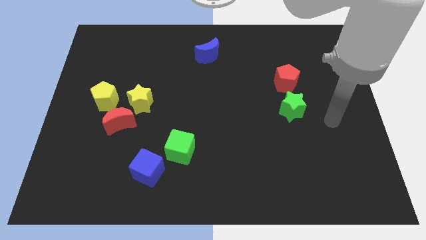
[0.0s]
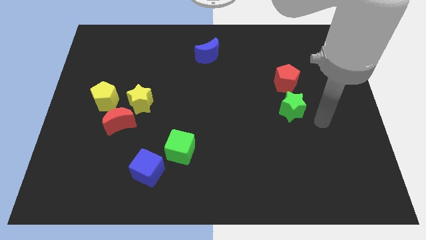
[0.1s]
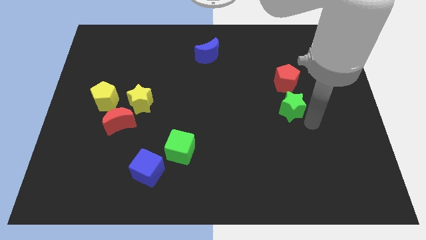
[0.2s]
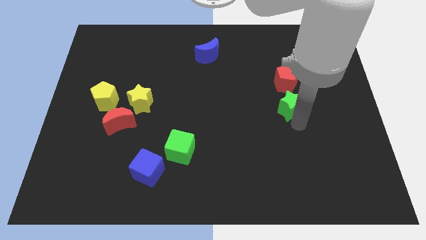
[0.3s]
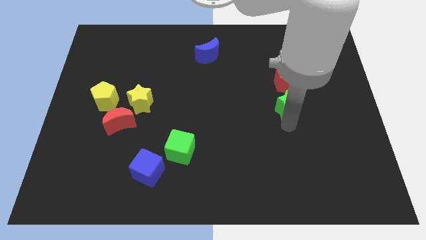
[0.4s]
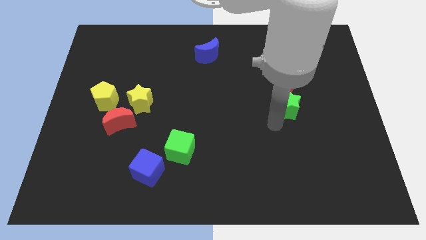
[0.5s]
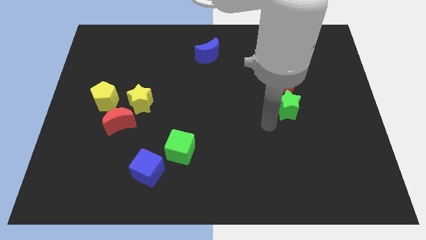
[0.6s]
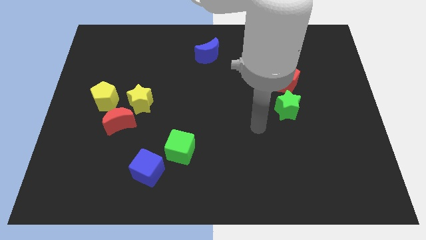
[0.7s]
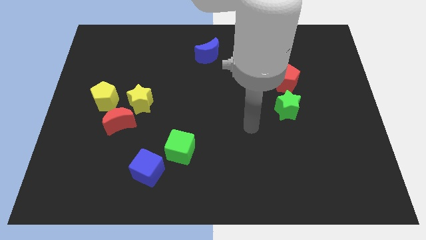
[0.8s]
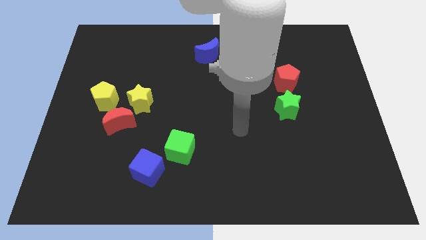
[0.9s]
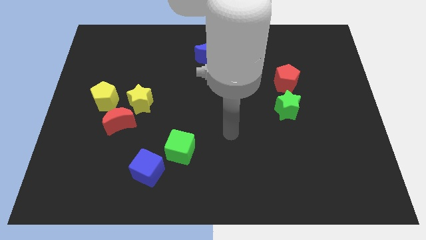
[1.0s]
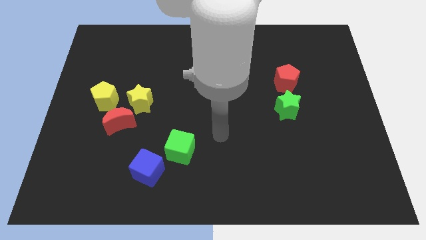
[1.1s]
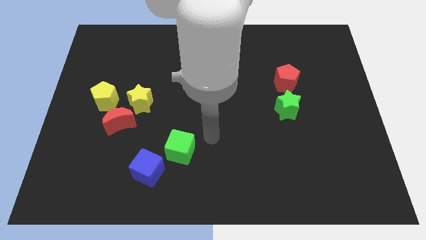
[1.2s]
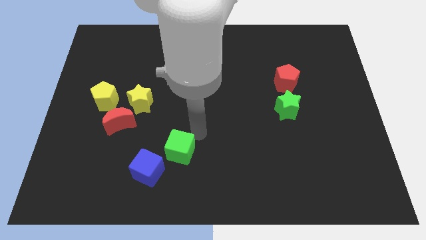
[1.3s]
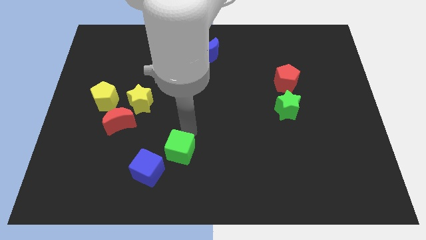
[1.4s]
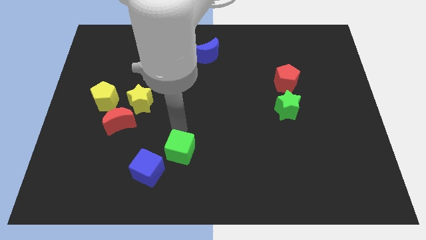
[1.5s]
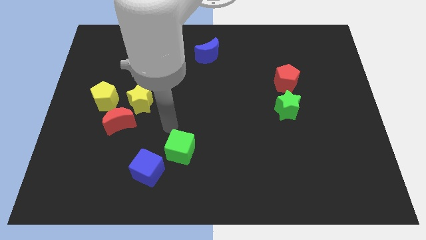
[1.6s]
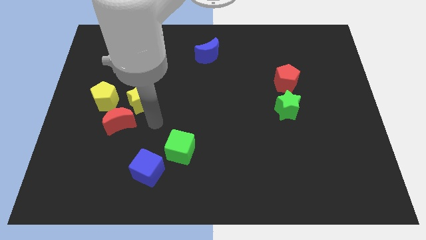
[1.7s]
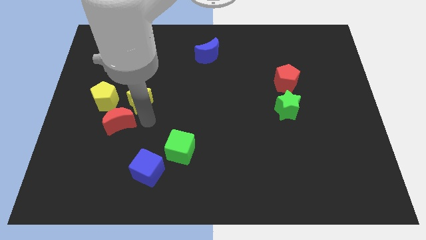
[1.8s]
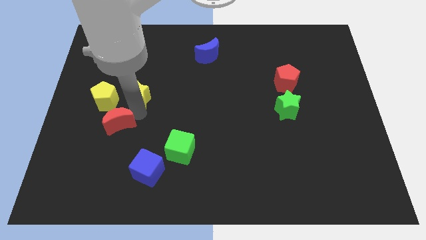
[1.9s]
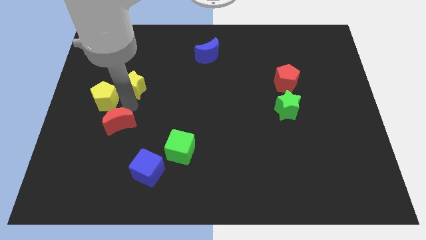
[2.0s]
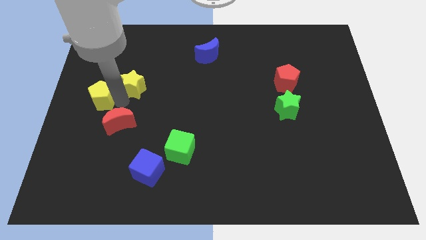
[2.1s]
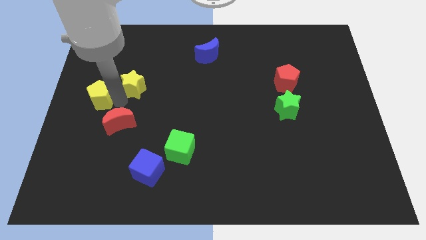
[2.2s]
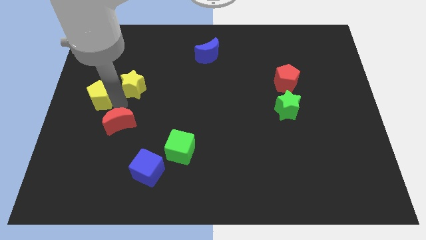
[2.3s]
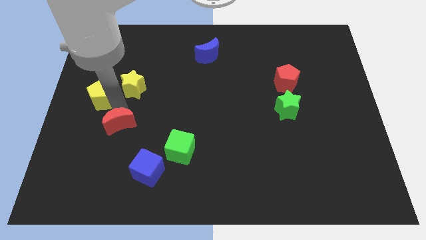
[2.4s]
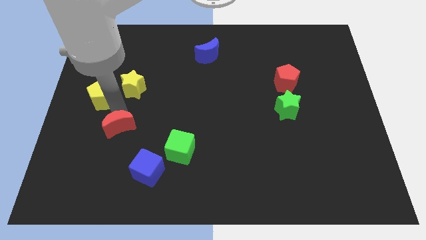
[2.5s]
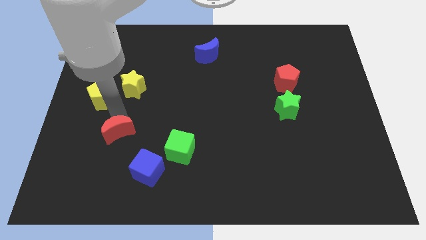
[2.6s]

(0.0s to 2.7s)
separate the red moon from the yellow star and yellow pentagon

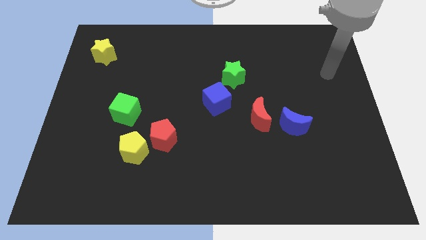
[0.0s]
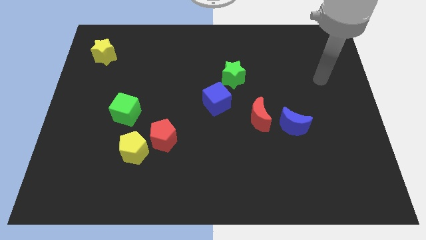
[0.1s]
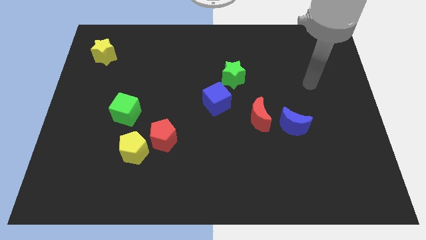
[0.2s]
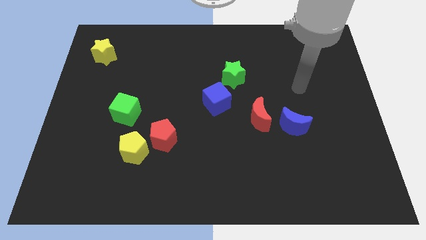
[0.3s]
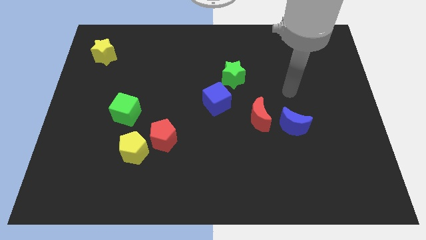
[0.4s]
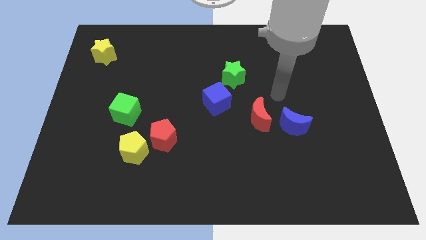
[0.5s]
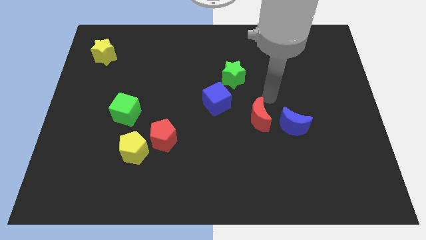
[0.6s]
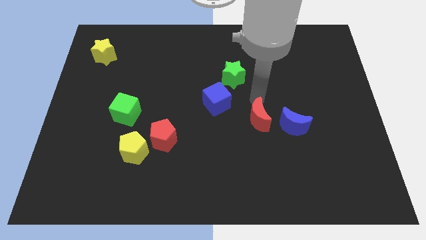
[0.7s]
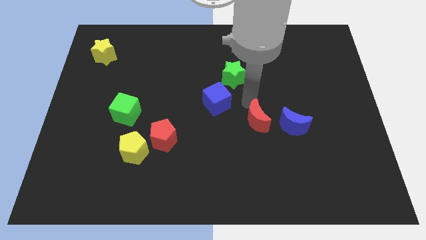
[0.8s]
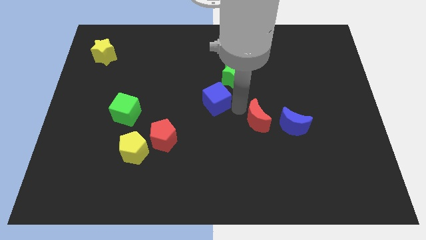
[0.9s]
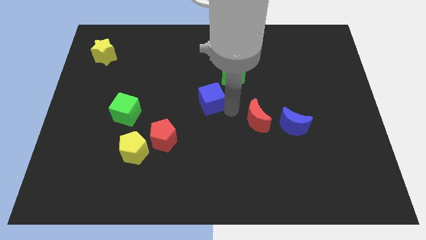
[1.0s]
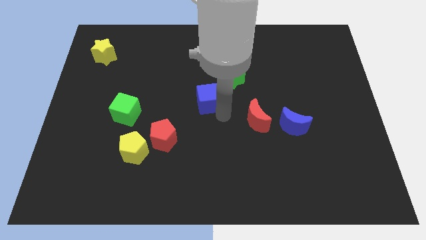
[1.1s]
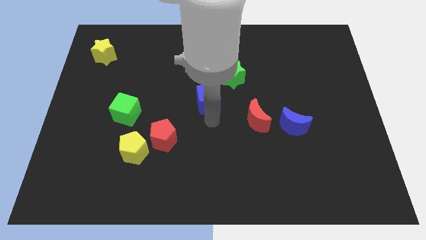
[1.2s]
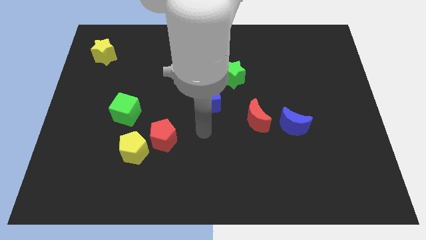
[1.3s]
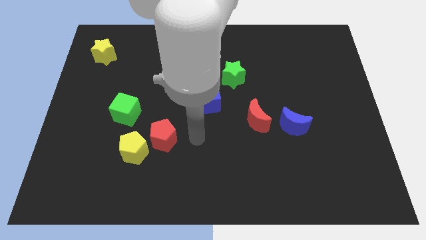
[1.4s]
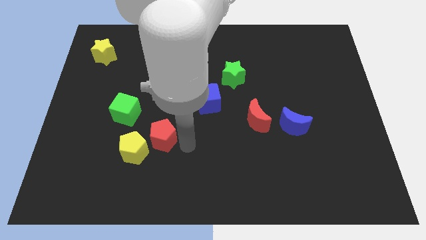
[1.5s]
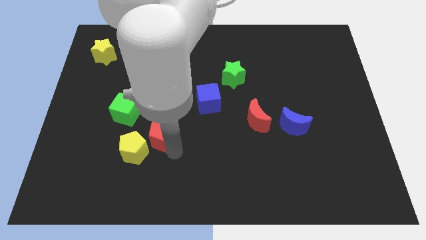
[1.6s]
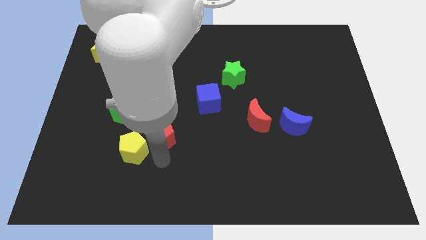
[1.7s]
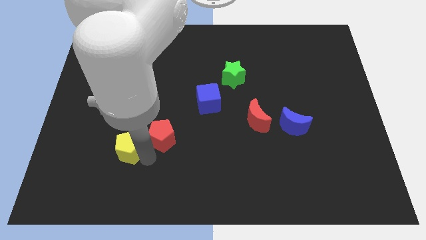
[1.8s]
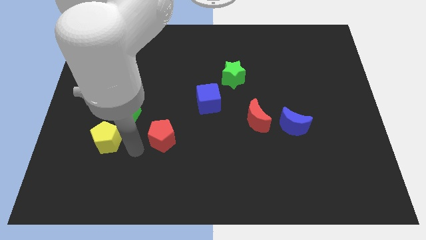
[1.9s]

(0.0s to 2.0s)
separate the red pentagon from the yellow pentagon

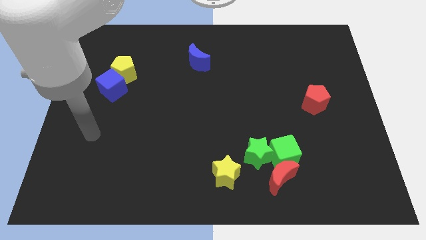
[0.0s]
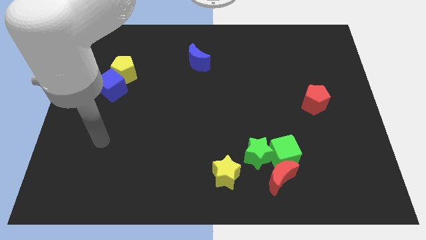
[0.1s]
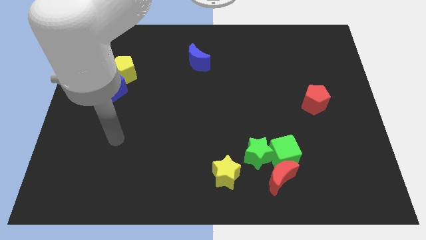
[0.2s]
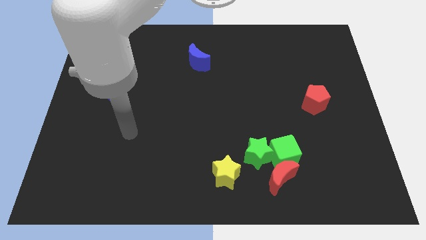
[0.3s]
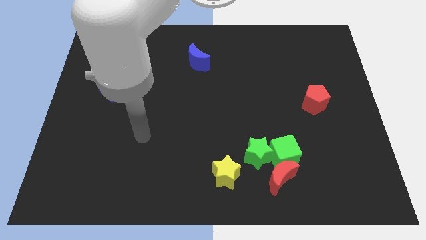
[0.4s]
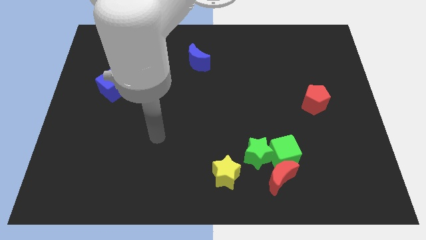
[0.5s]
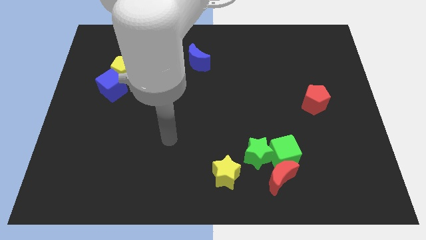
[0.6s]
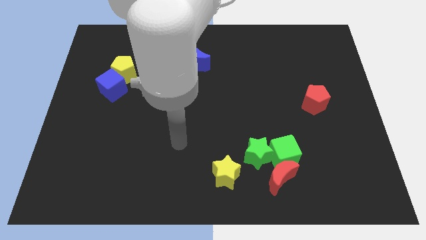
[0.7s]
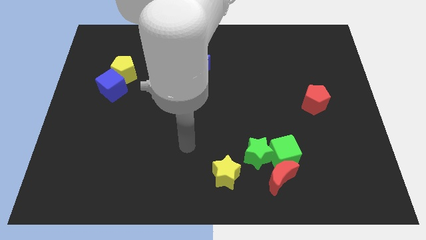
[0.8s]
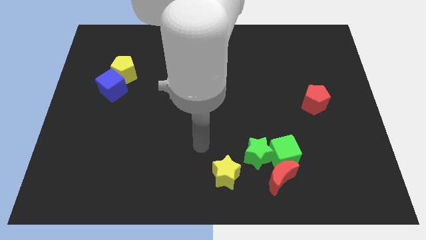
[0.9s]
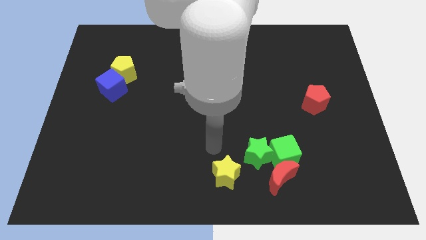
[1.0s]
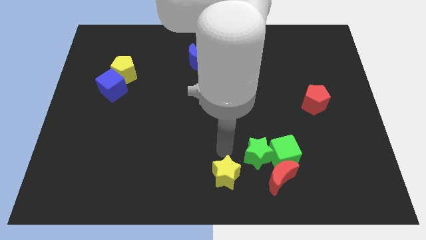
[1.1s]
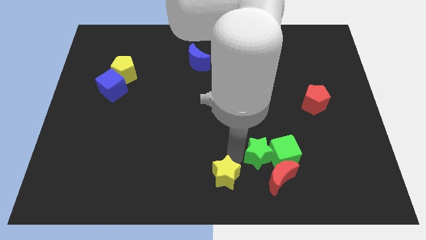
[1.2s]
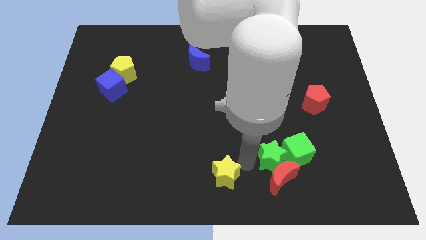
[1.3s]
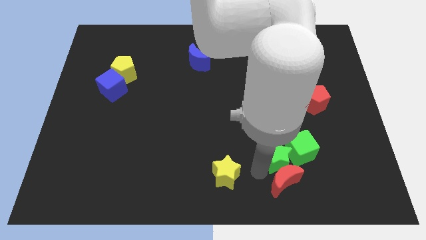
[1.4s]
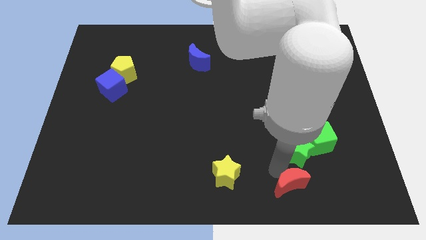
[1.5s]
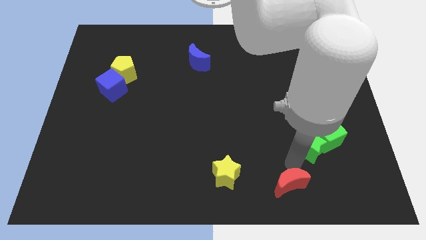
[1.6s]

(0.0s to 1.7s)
pull the green cube apart from the red moon and green star

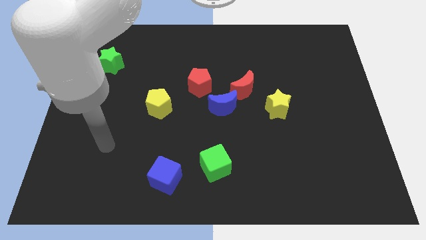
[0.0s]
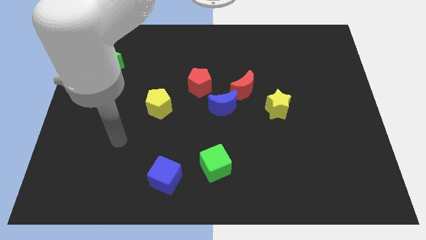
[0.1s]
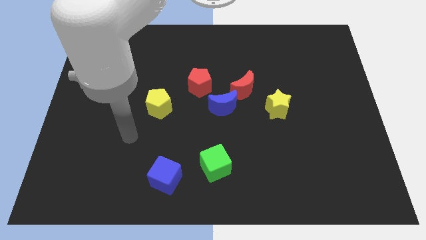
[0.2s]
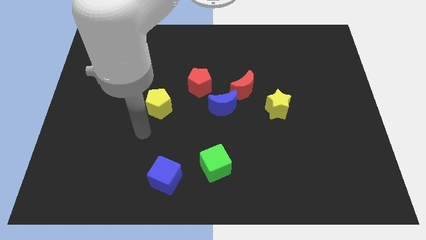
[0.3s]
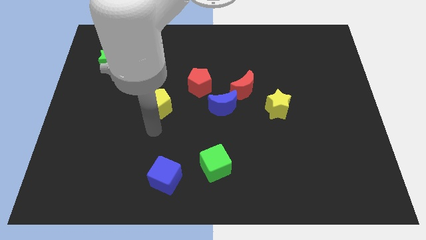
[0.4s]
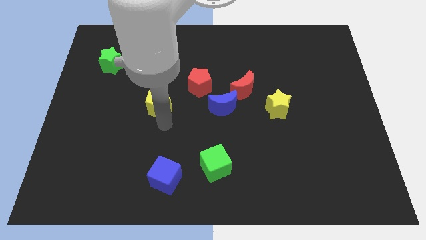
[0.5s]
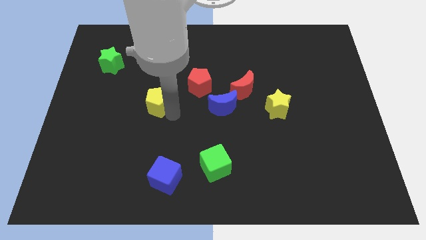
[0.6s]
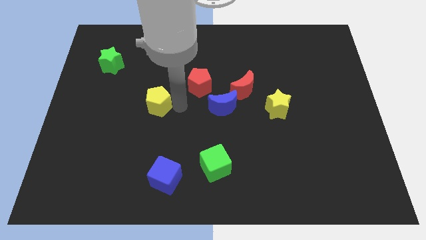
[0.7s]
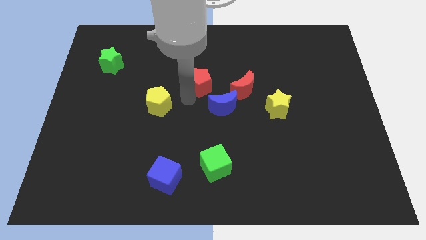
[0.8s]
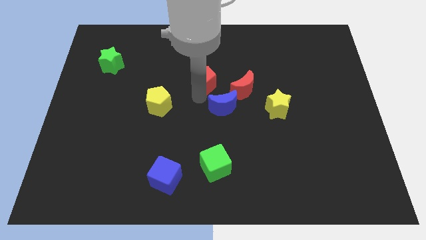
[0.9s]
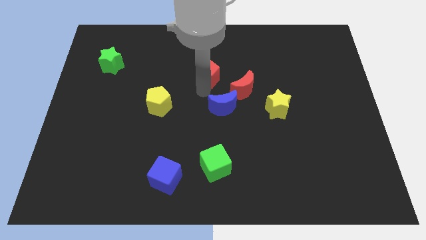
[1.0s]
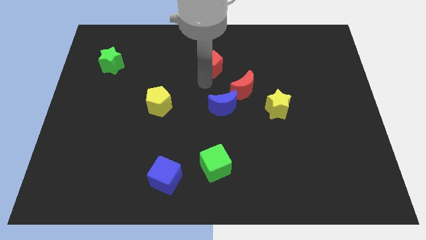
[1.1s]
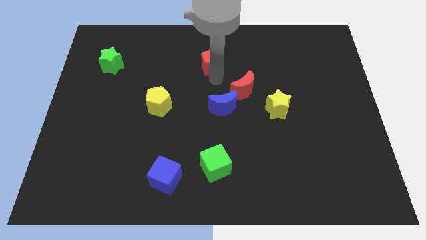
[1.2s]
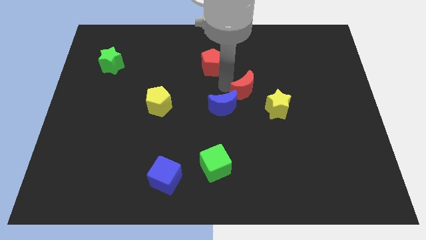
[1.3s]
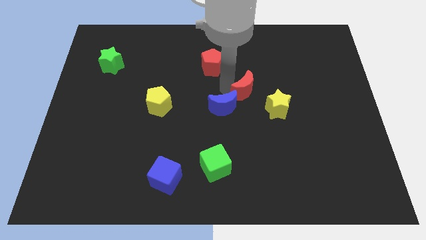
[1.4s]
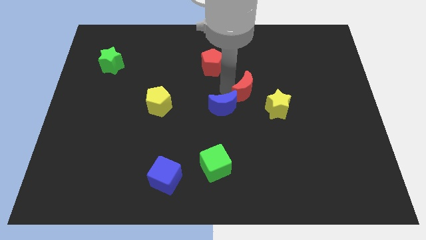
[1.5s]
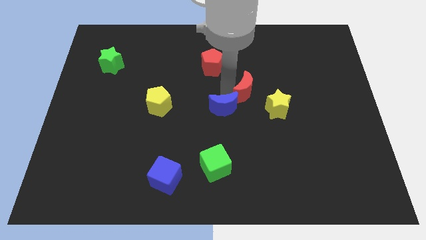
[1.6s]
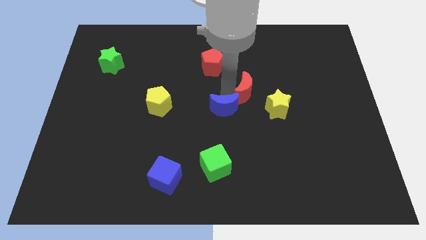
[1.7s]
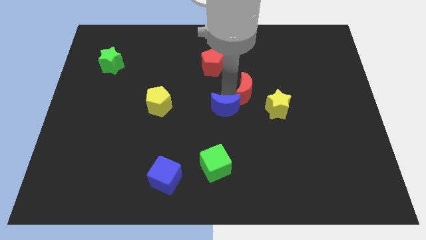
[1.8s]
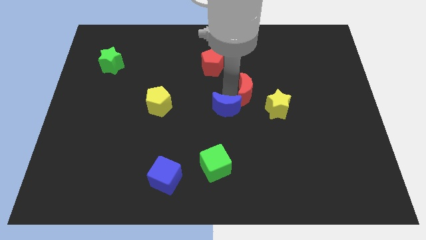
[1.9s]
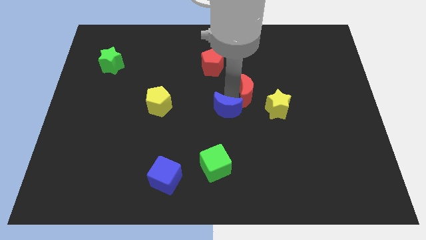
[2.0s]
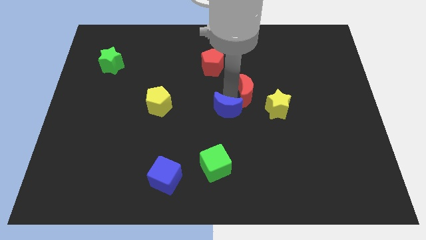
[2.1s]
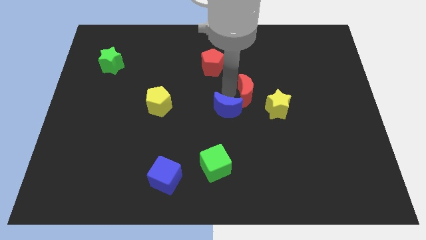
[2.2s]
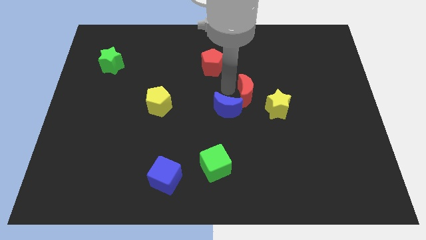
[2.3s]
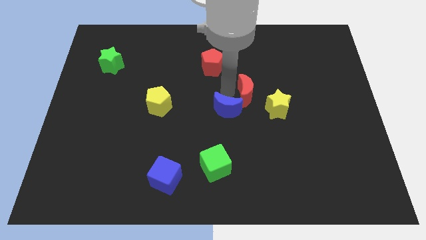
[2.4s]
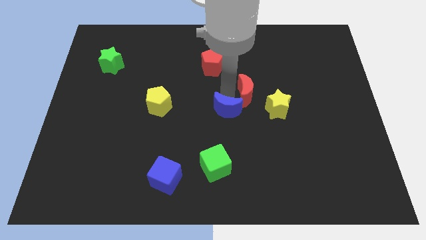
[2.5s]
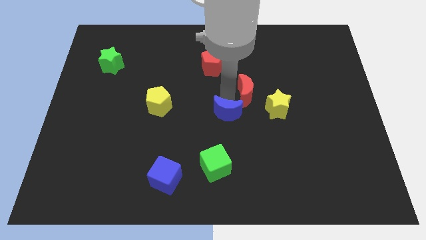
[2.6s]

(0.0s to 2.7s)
move the blue moon away from the red moon and red pentagon

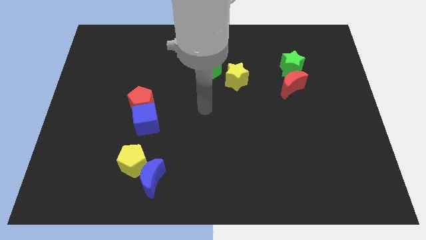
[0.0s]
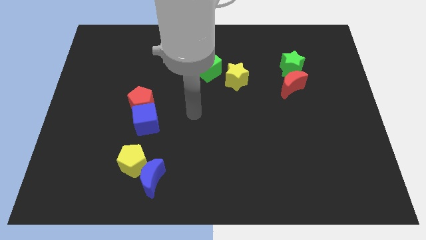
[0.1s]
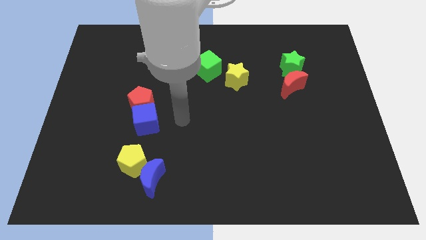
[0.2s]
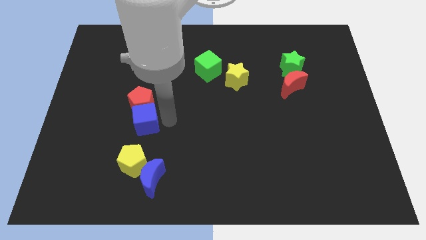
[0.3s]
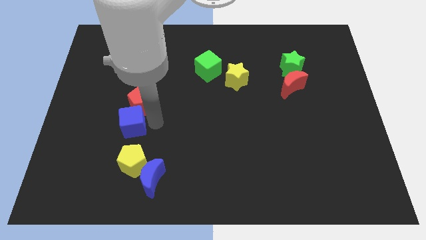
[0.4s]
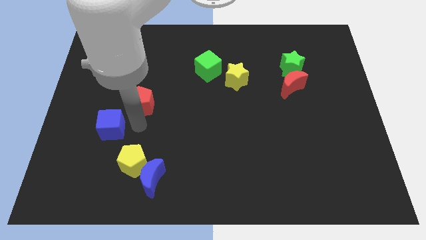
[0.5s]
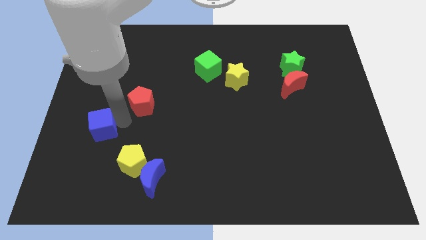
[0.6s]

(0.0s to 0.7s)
pull the red pentagon apart from the blue cube
